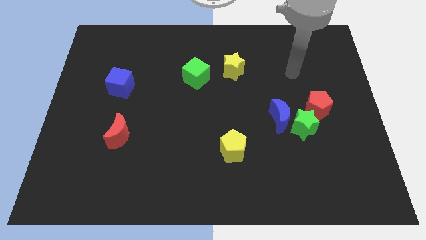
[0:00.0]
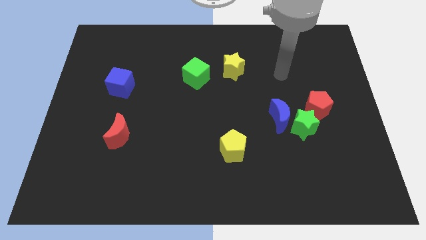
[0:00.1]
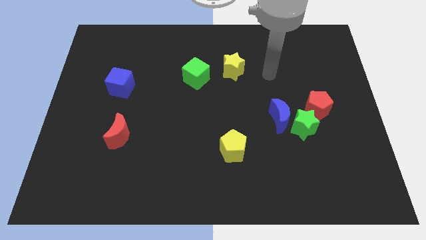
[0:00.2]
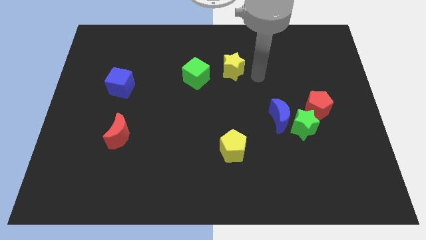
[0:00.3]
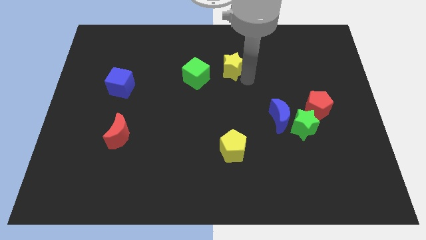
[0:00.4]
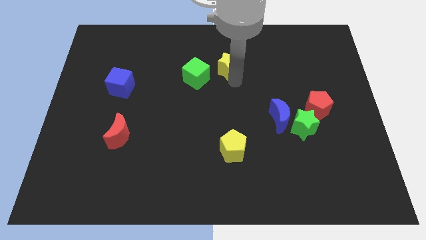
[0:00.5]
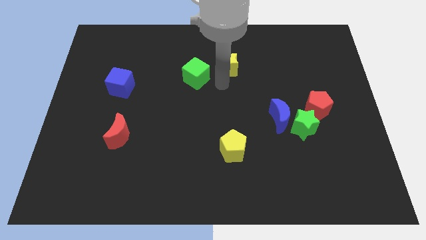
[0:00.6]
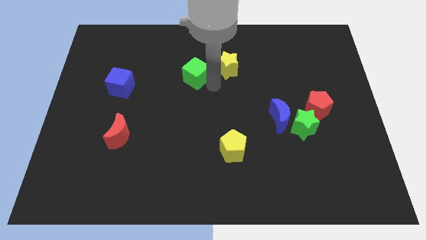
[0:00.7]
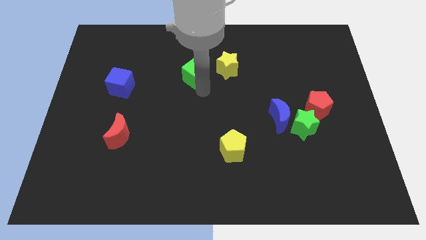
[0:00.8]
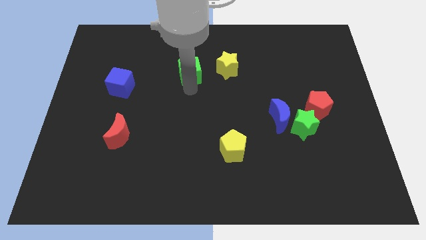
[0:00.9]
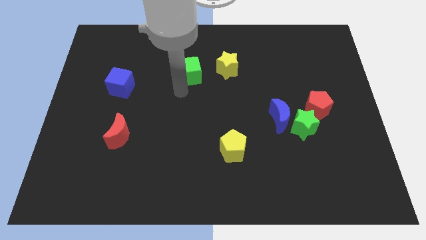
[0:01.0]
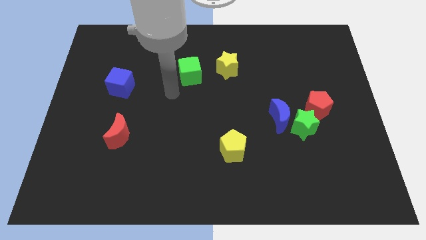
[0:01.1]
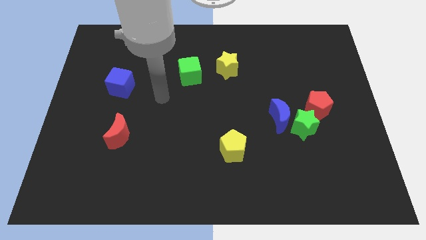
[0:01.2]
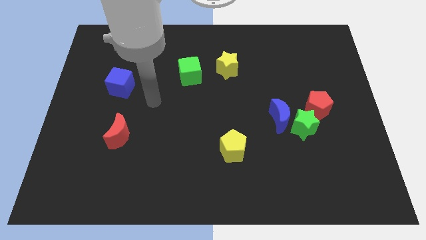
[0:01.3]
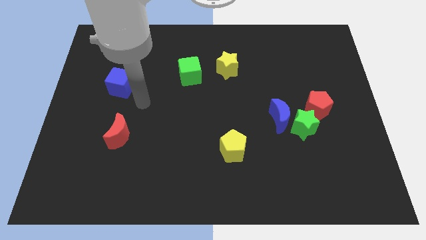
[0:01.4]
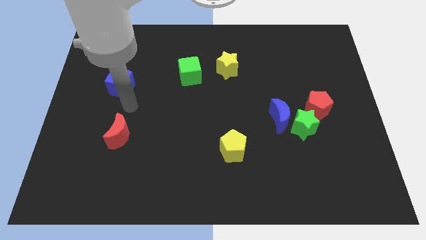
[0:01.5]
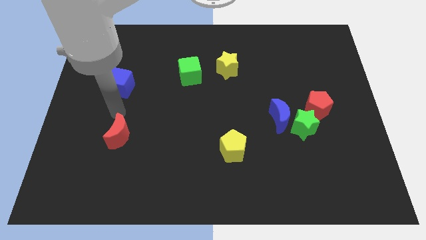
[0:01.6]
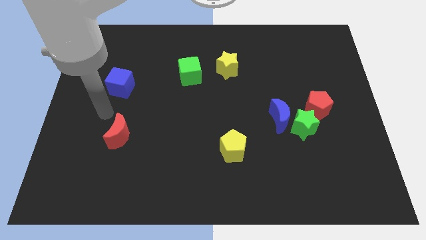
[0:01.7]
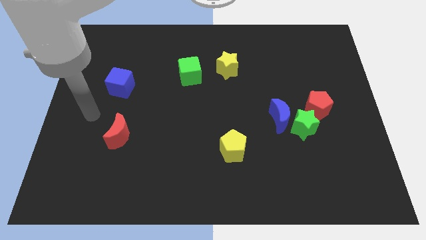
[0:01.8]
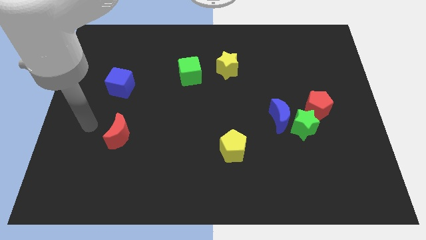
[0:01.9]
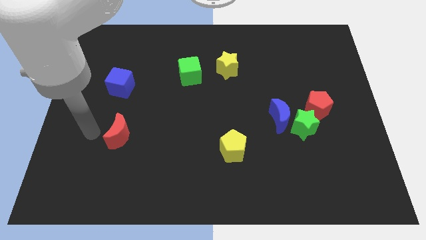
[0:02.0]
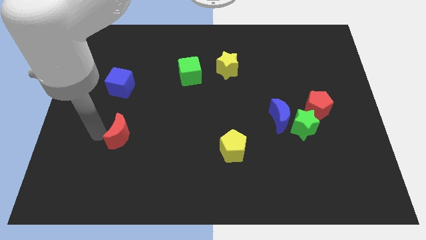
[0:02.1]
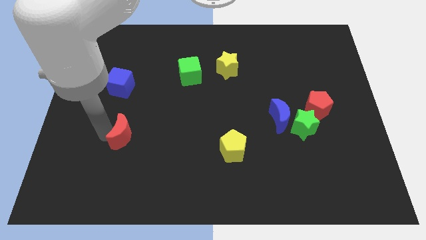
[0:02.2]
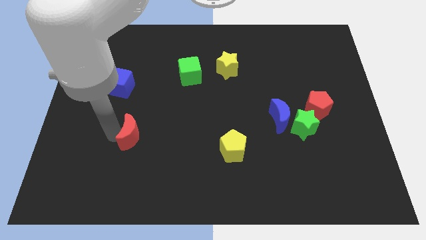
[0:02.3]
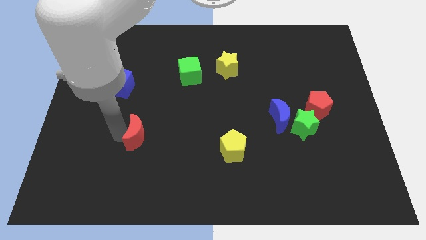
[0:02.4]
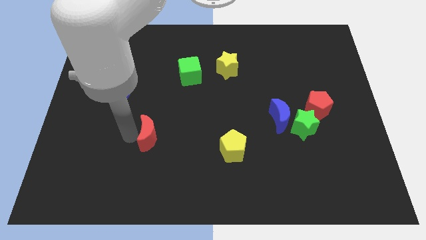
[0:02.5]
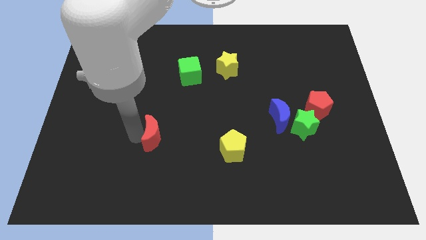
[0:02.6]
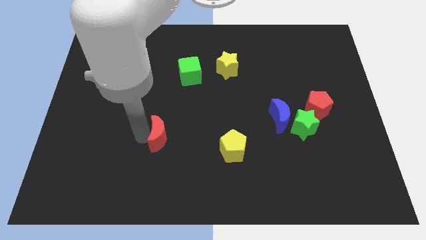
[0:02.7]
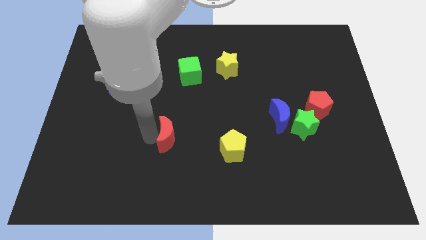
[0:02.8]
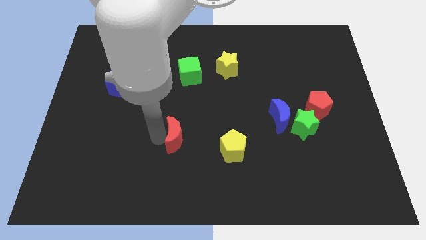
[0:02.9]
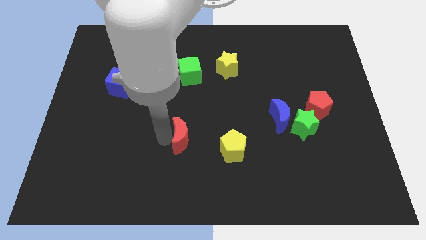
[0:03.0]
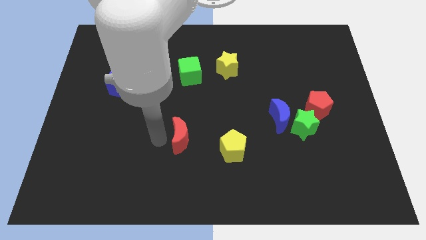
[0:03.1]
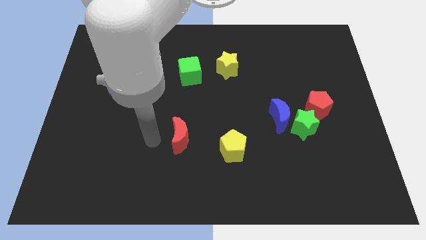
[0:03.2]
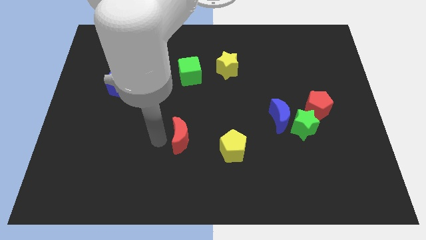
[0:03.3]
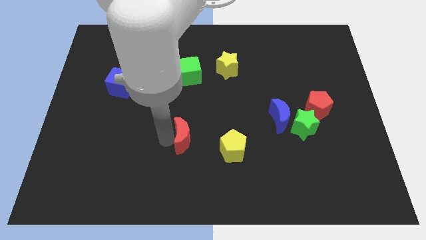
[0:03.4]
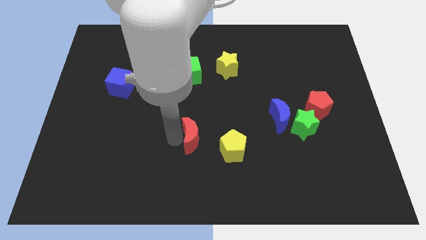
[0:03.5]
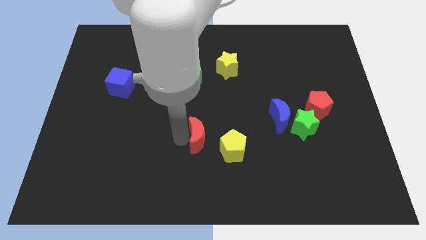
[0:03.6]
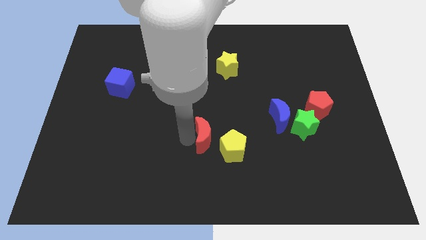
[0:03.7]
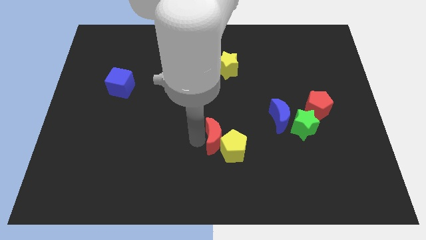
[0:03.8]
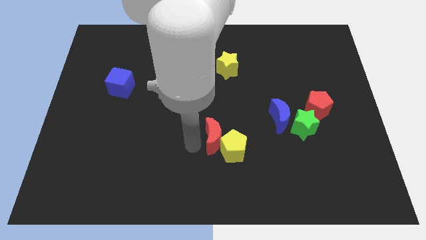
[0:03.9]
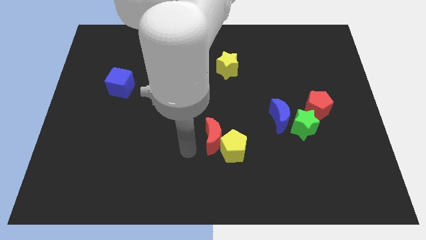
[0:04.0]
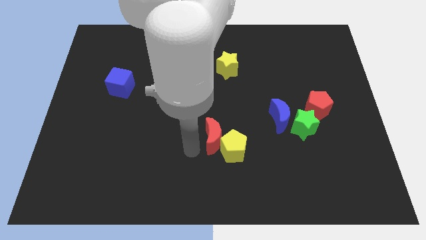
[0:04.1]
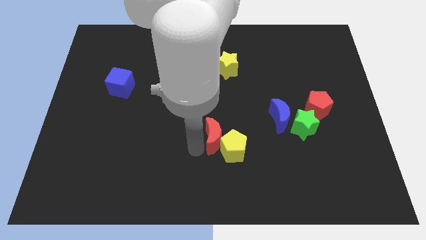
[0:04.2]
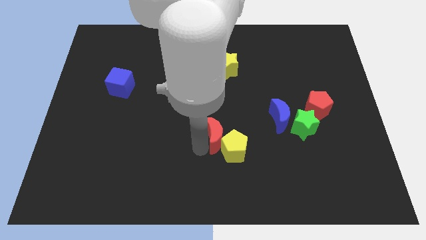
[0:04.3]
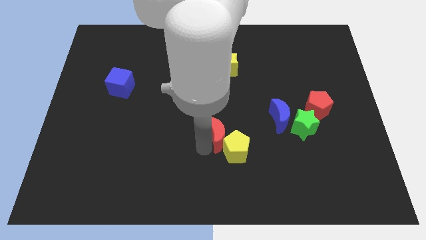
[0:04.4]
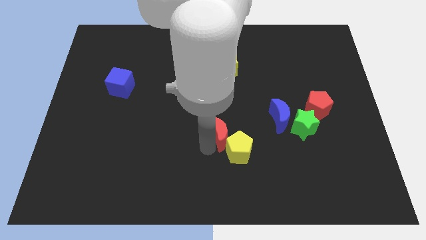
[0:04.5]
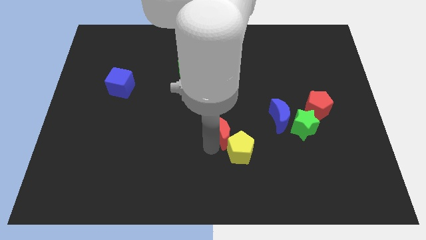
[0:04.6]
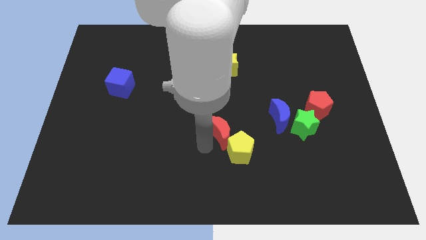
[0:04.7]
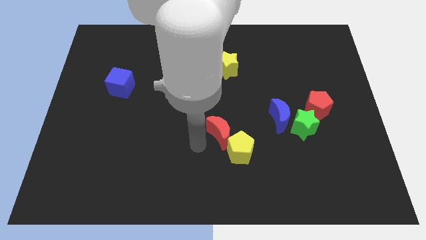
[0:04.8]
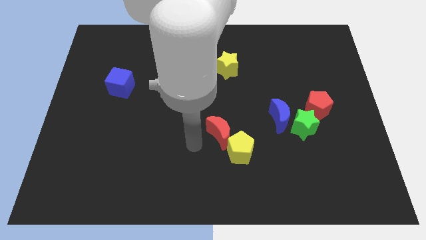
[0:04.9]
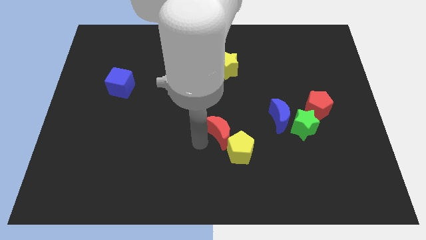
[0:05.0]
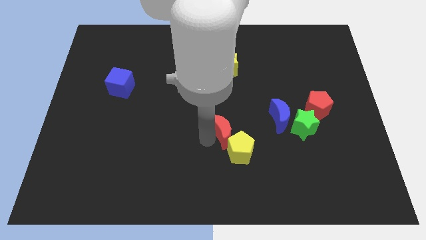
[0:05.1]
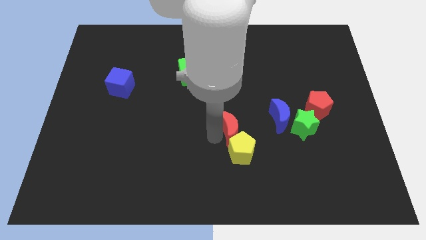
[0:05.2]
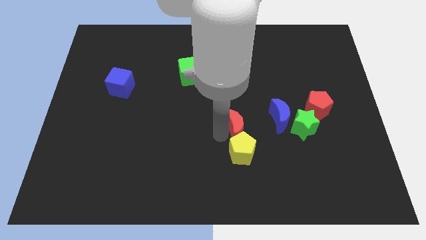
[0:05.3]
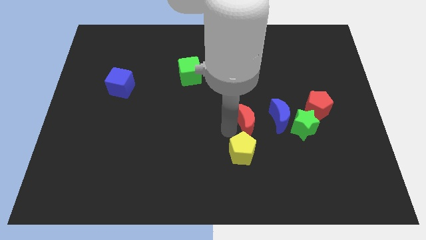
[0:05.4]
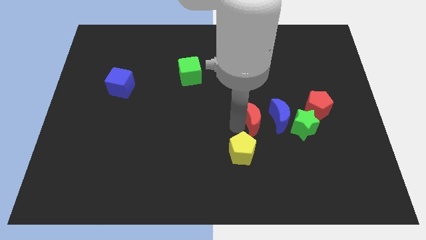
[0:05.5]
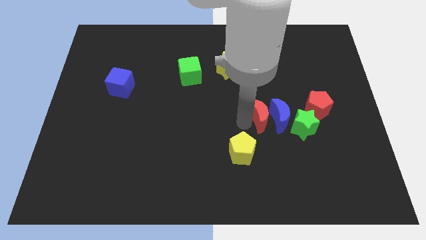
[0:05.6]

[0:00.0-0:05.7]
push the red moon next to the blue moon

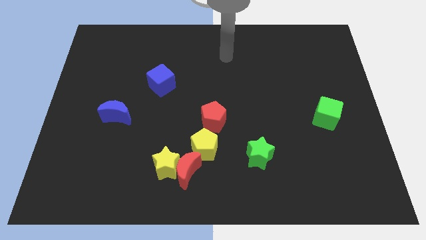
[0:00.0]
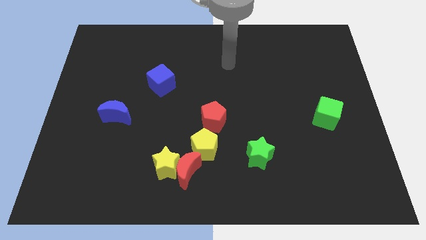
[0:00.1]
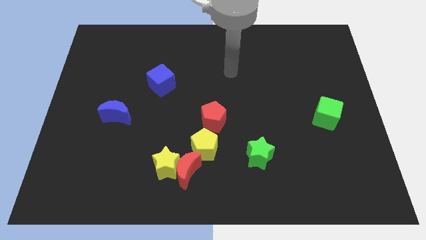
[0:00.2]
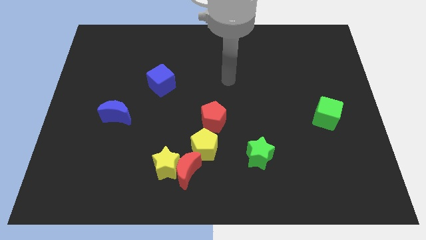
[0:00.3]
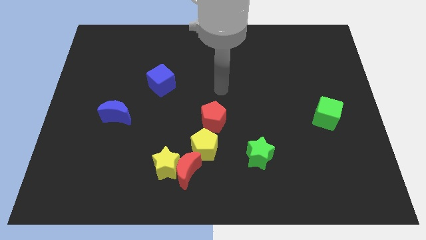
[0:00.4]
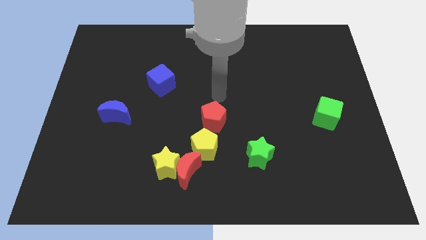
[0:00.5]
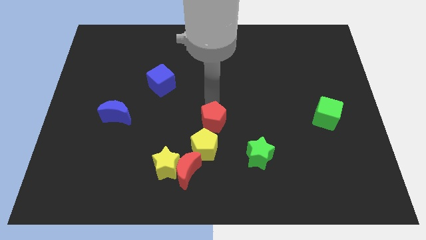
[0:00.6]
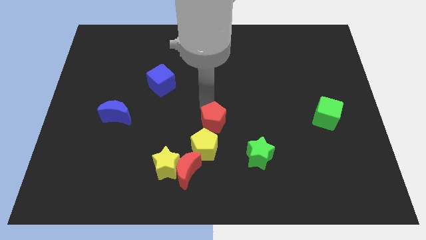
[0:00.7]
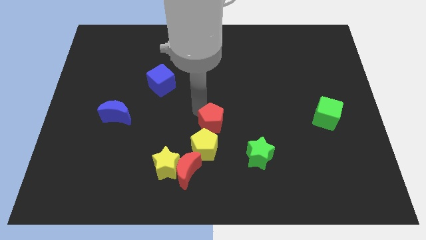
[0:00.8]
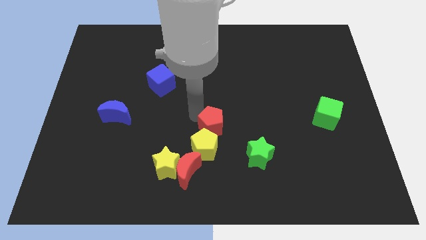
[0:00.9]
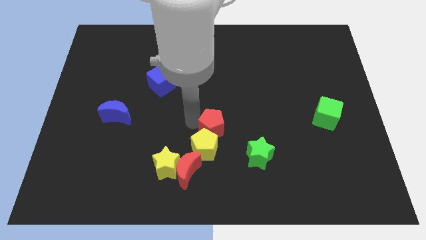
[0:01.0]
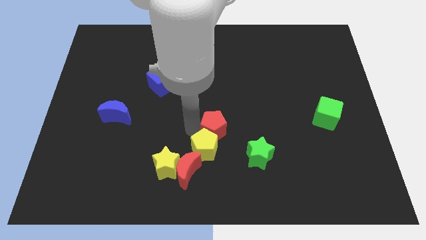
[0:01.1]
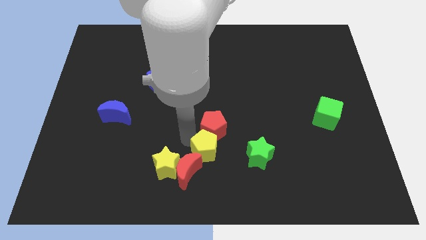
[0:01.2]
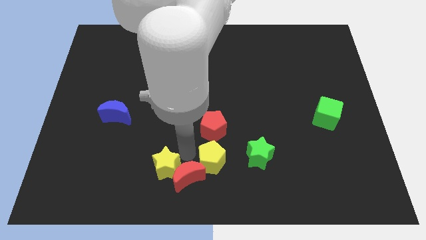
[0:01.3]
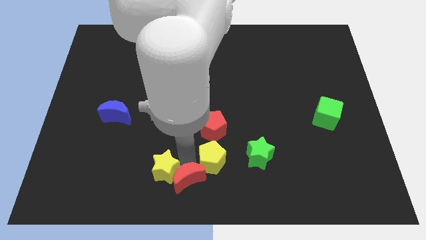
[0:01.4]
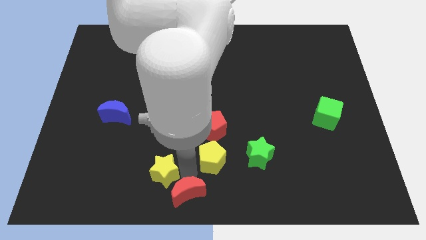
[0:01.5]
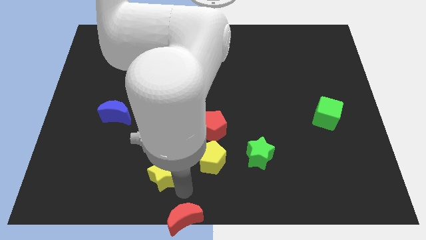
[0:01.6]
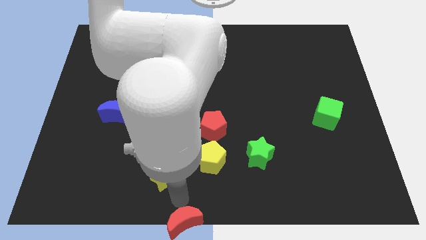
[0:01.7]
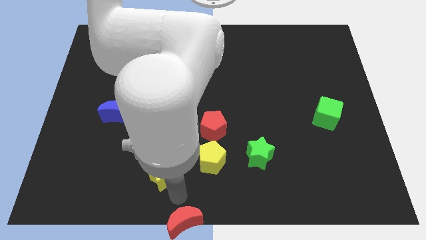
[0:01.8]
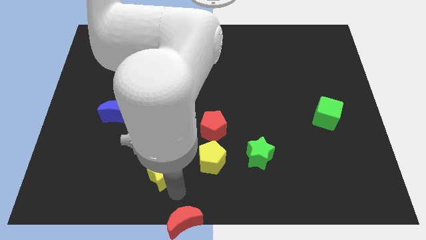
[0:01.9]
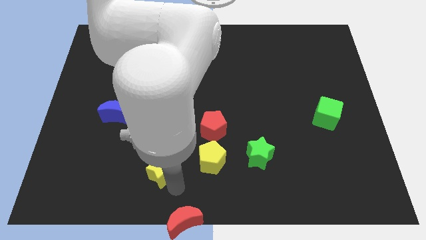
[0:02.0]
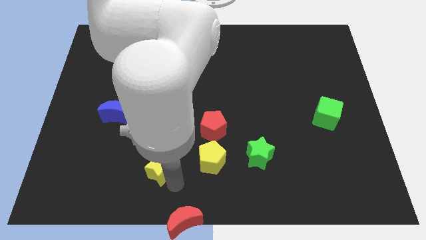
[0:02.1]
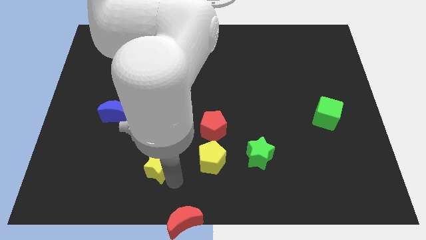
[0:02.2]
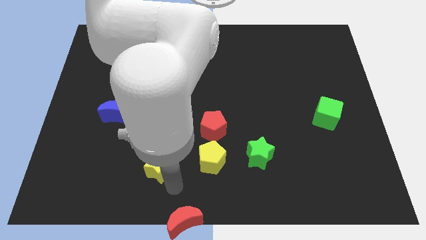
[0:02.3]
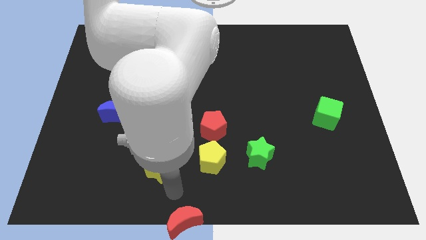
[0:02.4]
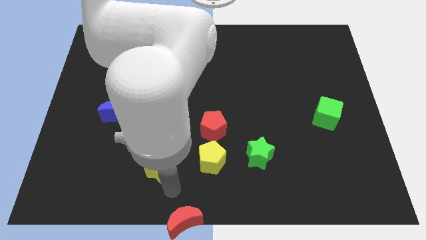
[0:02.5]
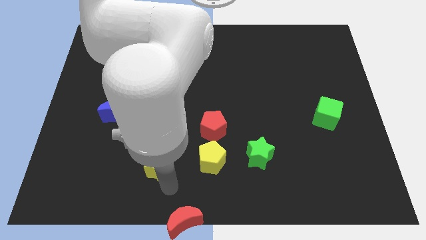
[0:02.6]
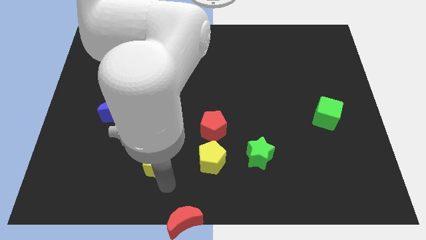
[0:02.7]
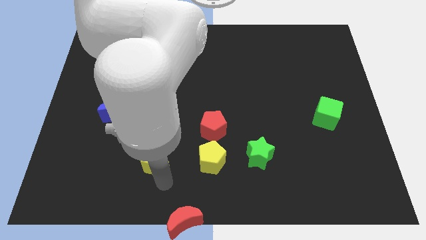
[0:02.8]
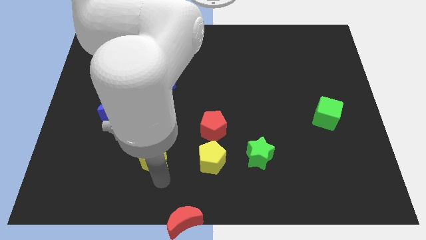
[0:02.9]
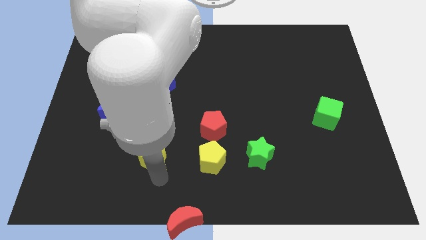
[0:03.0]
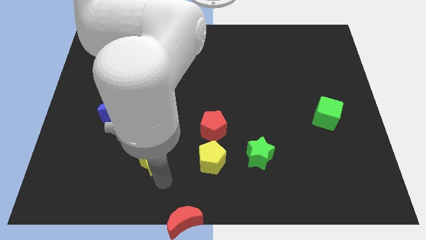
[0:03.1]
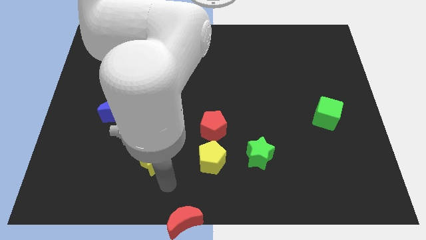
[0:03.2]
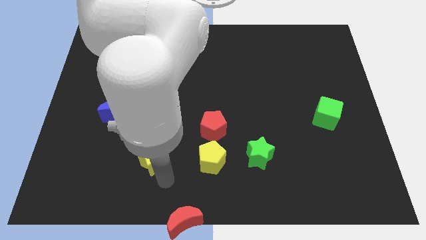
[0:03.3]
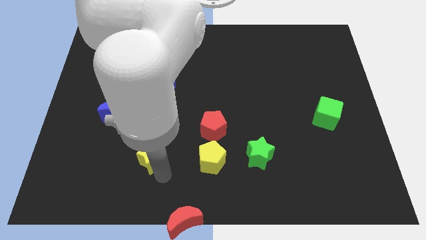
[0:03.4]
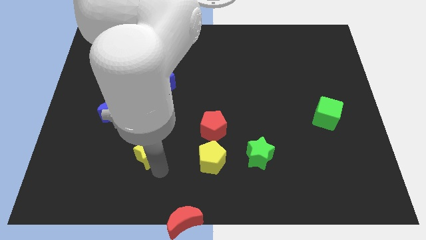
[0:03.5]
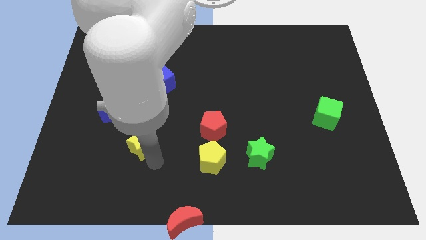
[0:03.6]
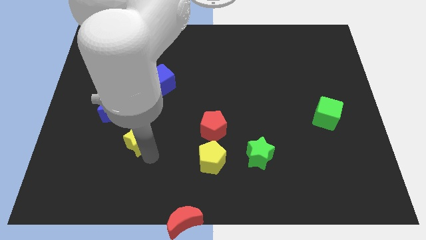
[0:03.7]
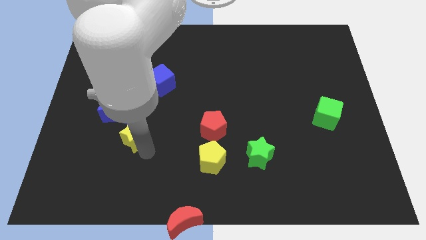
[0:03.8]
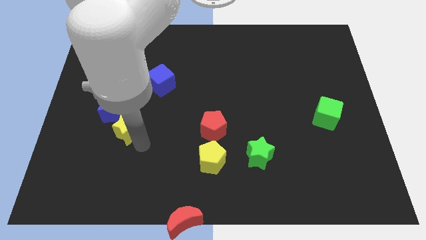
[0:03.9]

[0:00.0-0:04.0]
push the yellow star towards the blue moon
